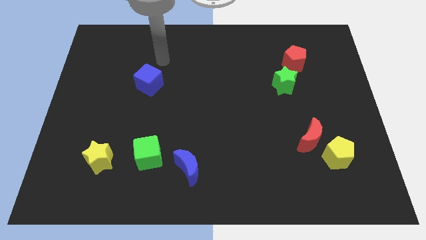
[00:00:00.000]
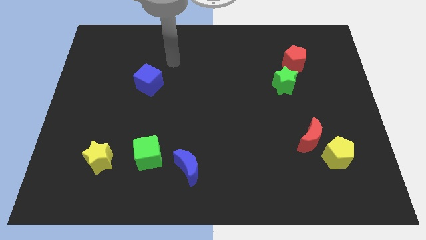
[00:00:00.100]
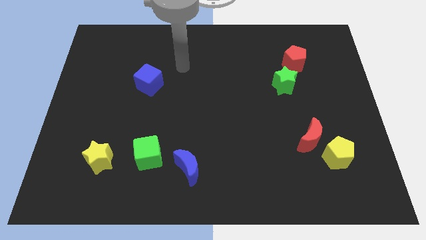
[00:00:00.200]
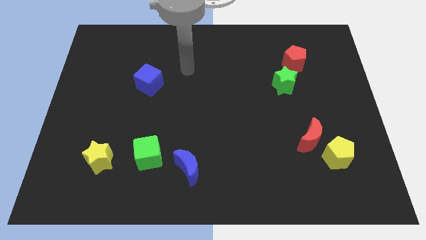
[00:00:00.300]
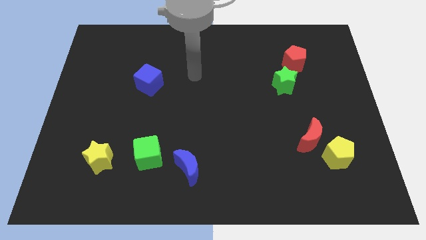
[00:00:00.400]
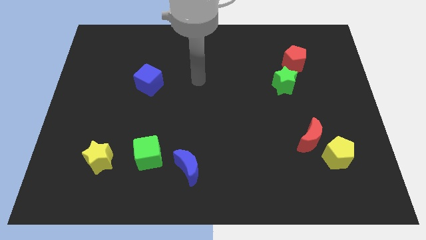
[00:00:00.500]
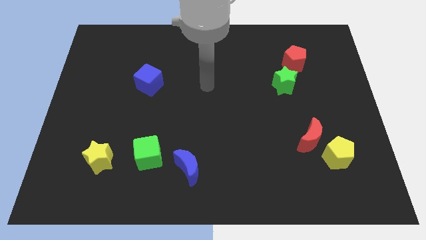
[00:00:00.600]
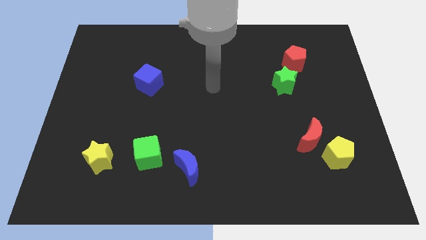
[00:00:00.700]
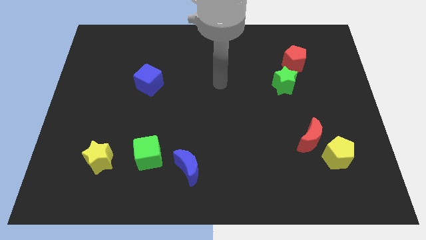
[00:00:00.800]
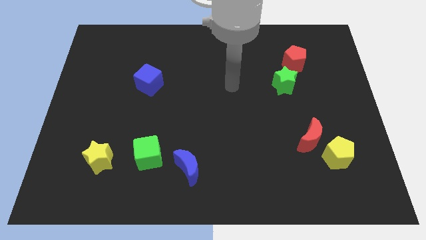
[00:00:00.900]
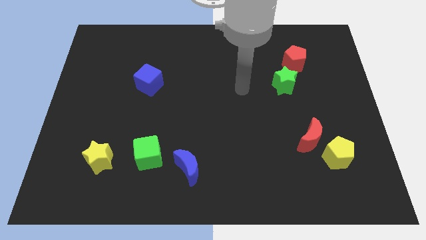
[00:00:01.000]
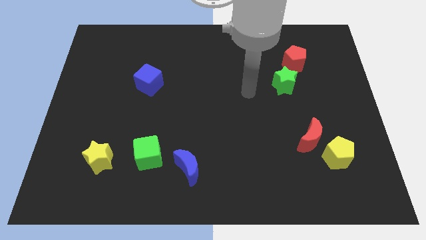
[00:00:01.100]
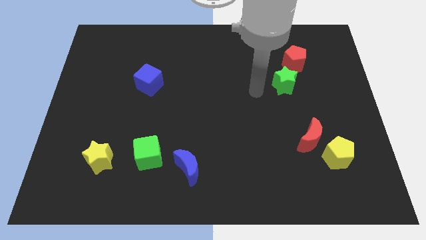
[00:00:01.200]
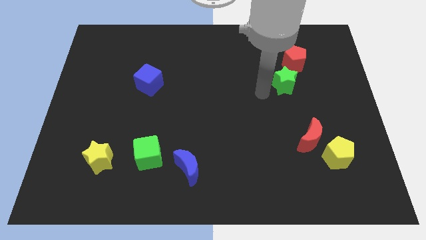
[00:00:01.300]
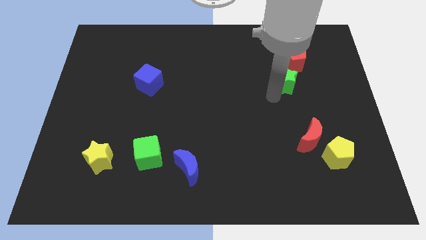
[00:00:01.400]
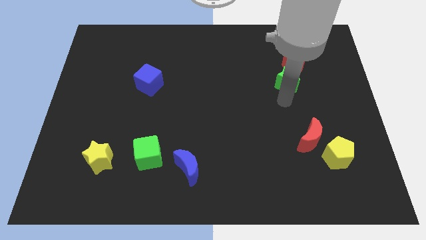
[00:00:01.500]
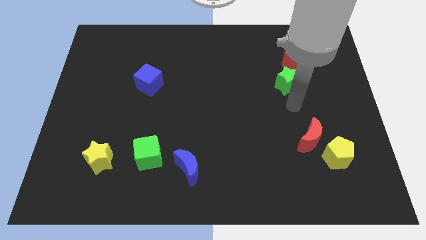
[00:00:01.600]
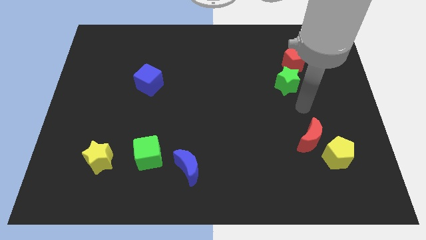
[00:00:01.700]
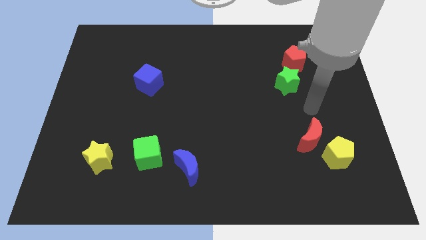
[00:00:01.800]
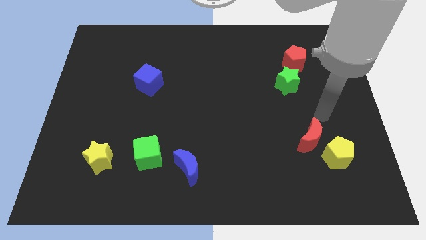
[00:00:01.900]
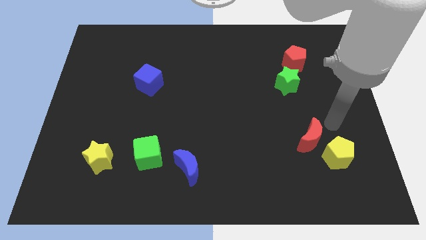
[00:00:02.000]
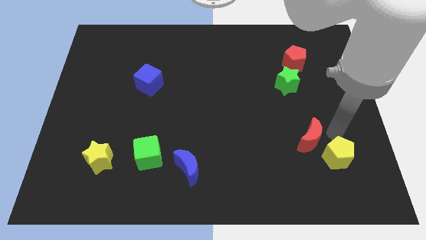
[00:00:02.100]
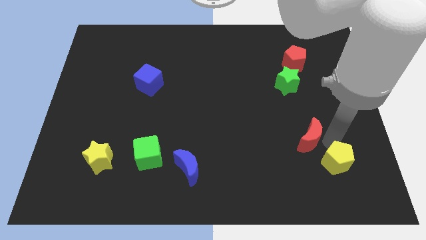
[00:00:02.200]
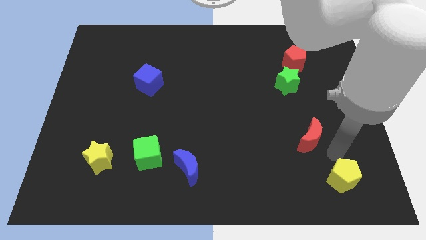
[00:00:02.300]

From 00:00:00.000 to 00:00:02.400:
pull the red moon apart from the yellow pentagon

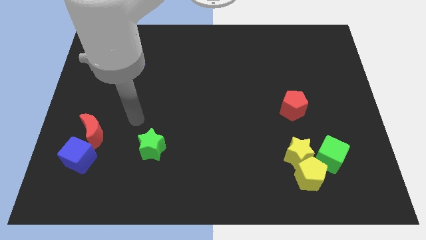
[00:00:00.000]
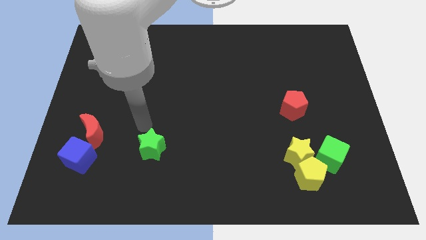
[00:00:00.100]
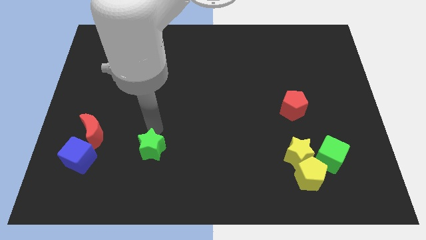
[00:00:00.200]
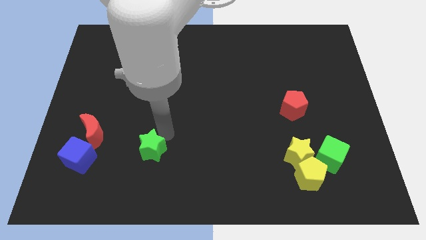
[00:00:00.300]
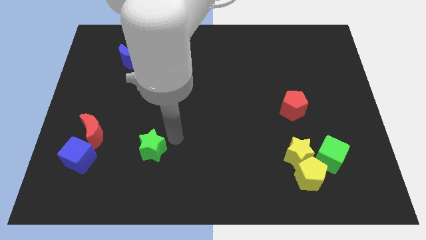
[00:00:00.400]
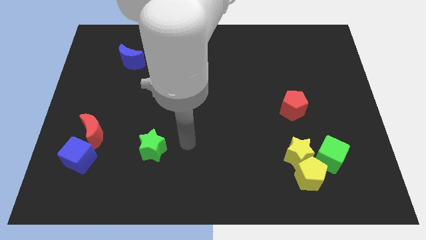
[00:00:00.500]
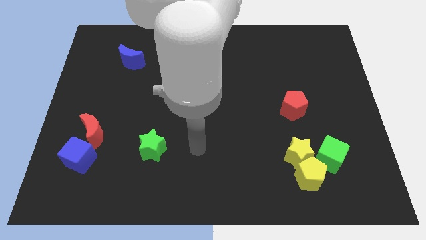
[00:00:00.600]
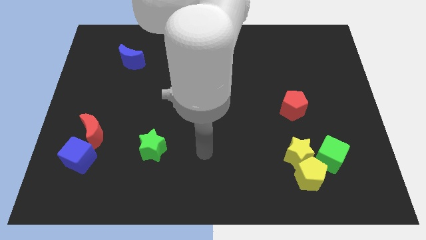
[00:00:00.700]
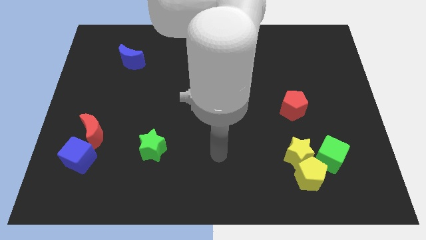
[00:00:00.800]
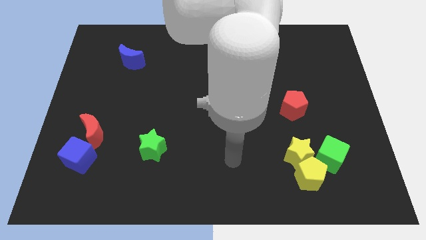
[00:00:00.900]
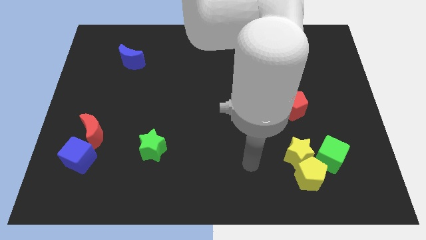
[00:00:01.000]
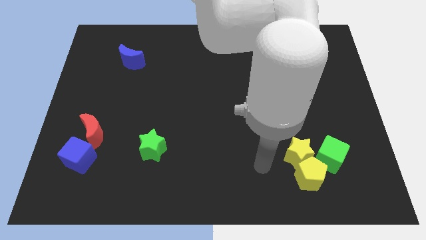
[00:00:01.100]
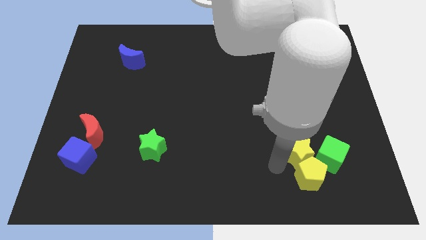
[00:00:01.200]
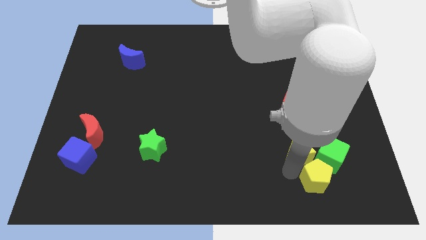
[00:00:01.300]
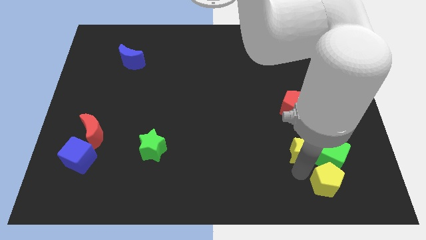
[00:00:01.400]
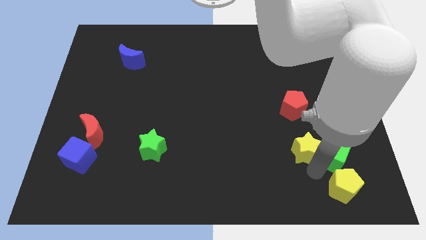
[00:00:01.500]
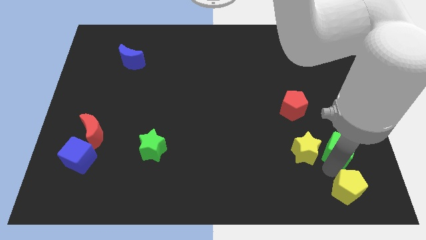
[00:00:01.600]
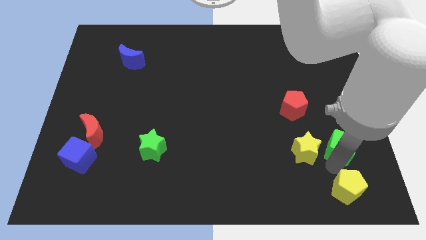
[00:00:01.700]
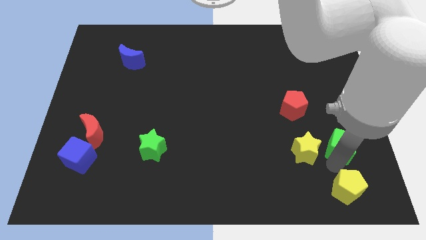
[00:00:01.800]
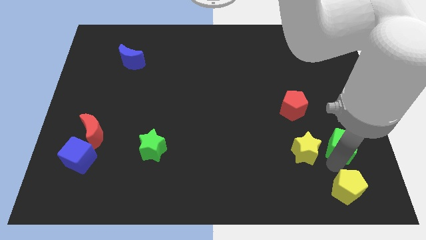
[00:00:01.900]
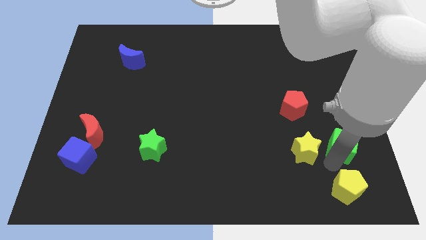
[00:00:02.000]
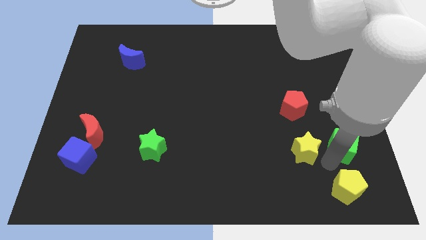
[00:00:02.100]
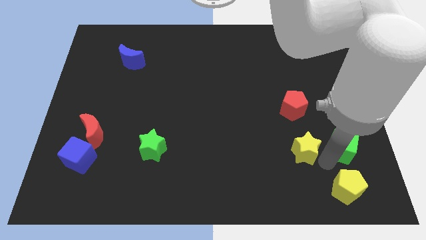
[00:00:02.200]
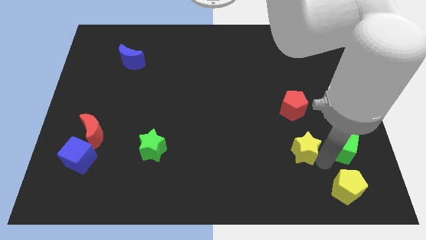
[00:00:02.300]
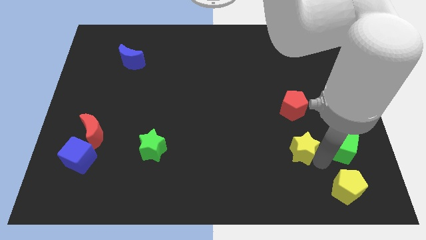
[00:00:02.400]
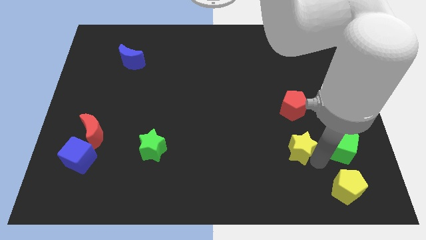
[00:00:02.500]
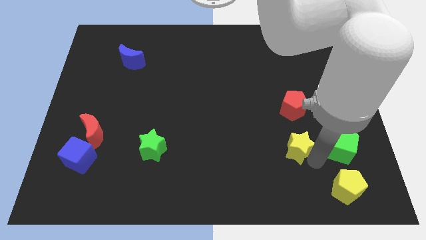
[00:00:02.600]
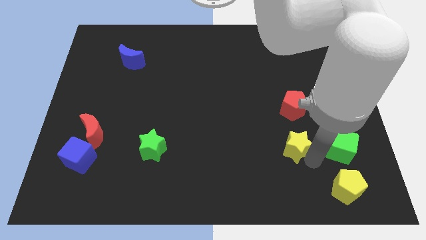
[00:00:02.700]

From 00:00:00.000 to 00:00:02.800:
move the yellow star away from the yellow pentagon and green cube

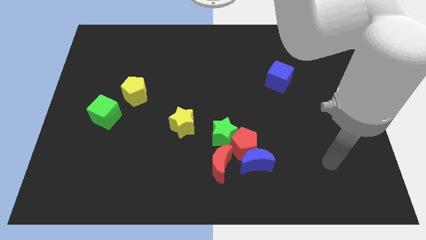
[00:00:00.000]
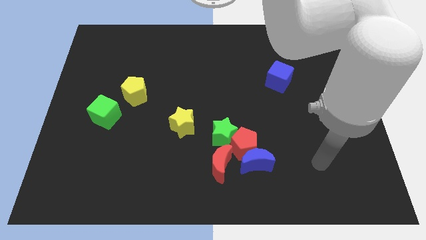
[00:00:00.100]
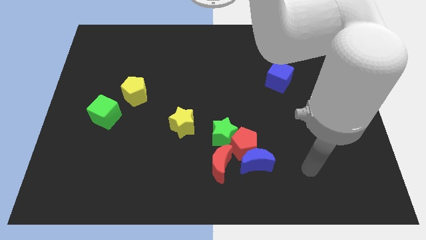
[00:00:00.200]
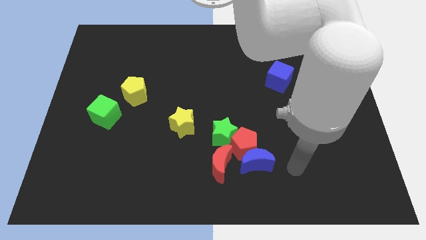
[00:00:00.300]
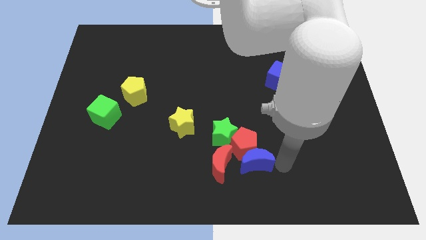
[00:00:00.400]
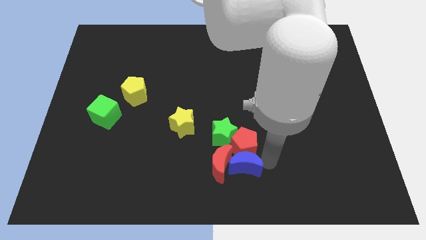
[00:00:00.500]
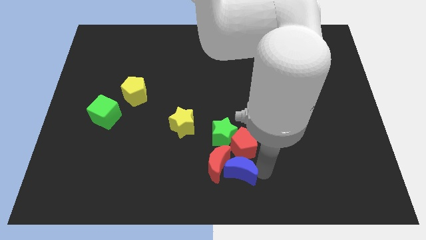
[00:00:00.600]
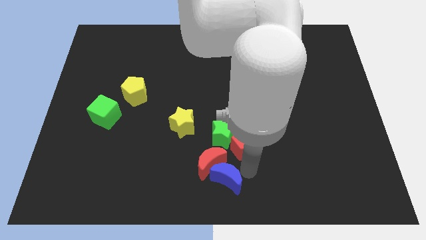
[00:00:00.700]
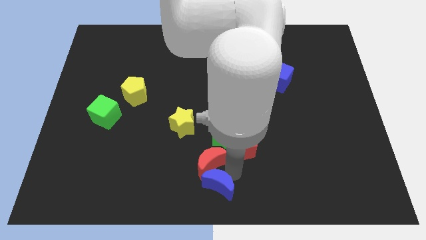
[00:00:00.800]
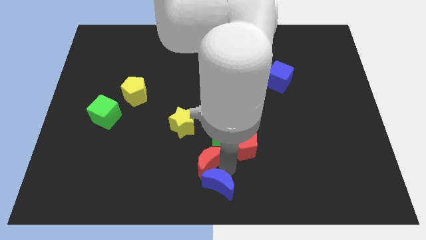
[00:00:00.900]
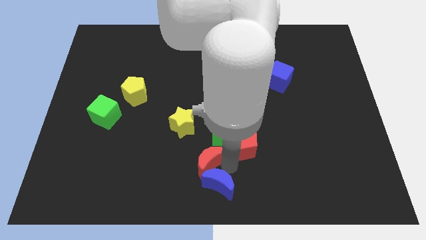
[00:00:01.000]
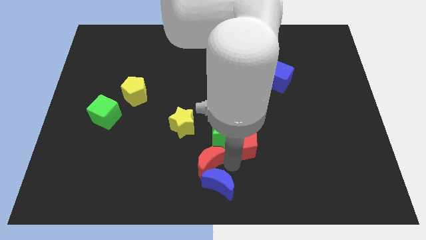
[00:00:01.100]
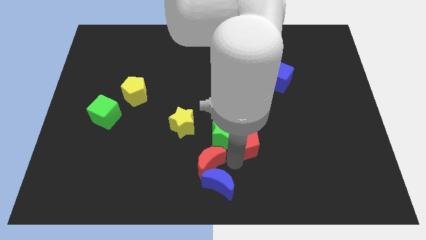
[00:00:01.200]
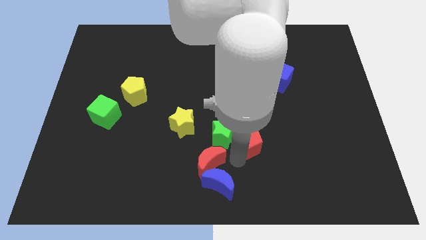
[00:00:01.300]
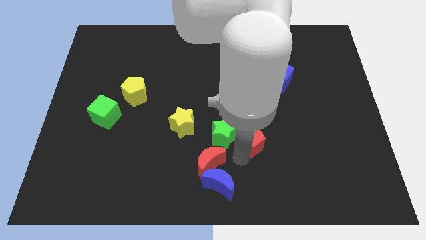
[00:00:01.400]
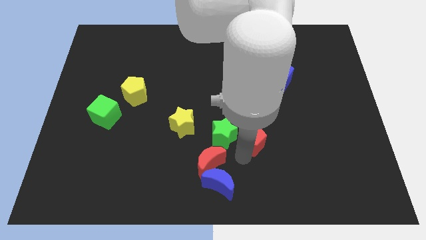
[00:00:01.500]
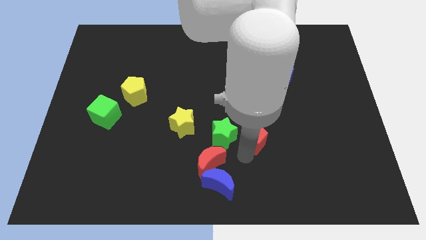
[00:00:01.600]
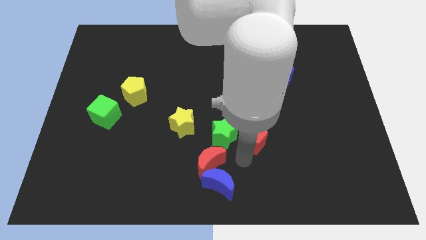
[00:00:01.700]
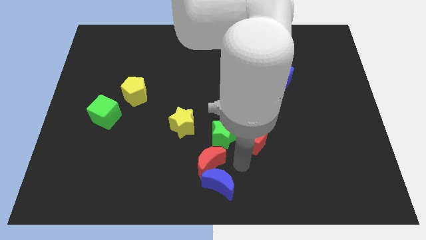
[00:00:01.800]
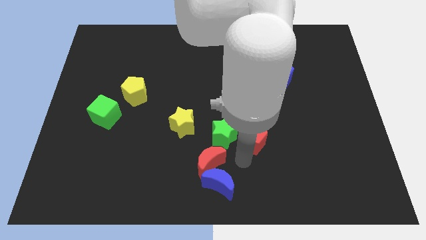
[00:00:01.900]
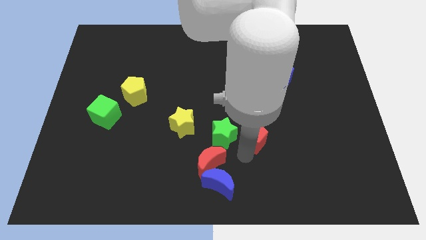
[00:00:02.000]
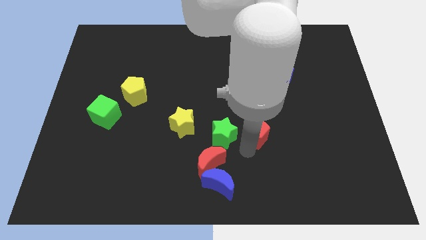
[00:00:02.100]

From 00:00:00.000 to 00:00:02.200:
move the red pentagon away from the group

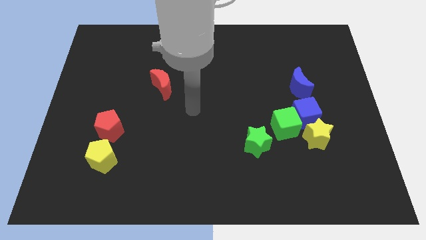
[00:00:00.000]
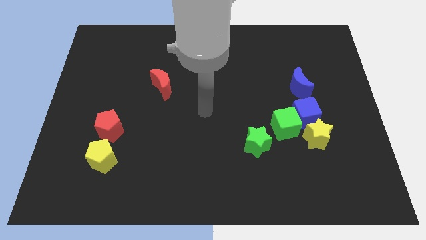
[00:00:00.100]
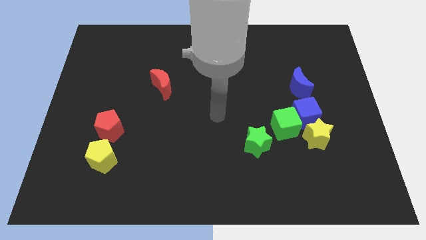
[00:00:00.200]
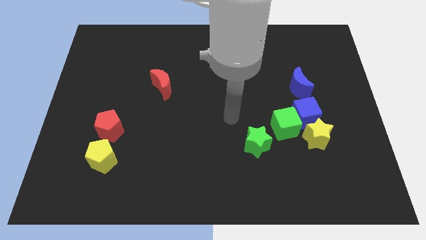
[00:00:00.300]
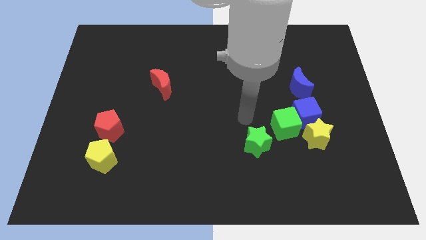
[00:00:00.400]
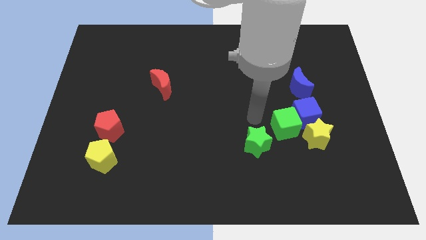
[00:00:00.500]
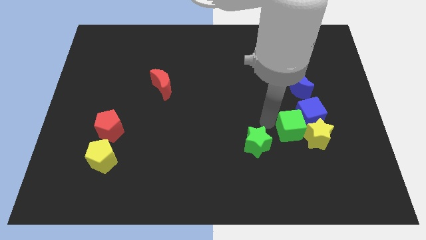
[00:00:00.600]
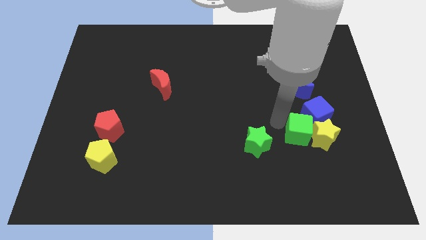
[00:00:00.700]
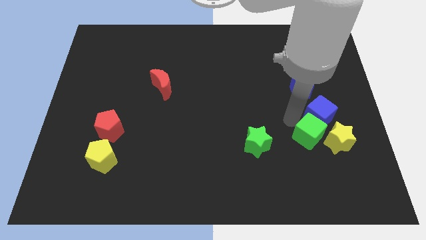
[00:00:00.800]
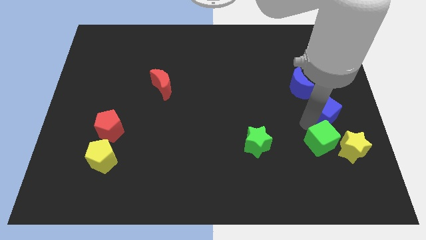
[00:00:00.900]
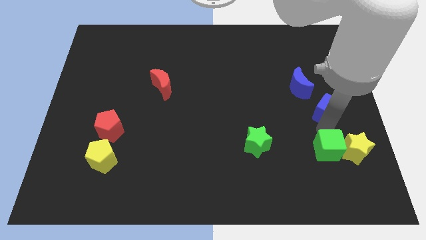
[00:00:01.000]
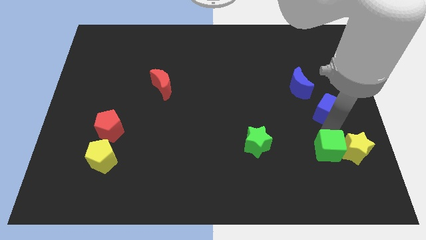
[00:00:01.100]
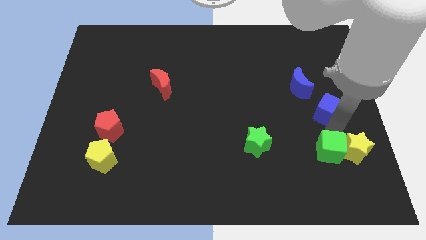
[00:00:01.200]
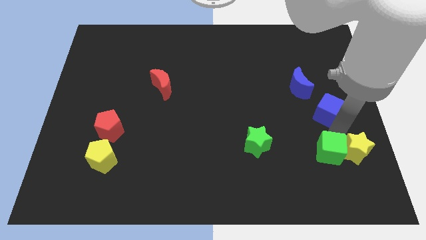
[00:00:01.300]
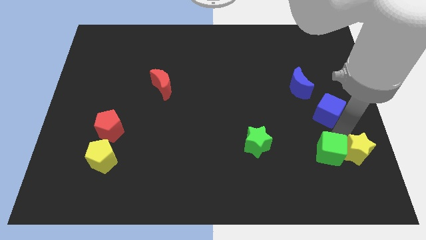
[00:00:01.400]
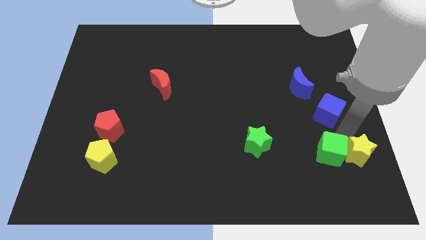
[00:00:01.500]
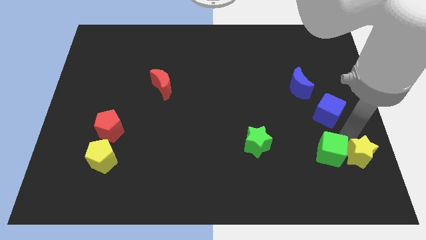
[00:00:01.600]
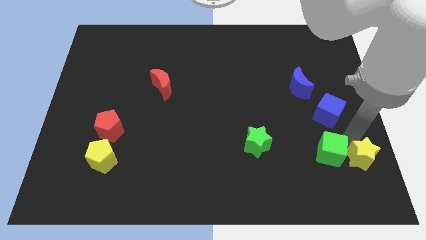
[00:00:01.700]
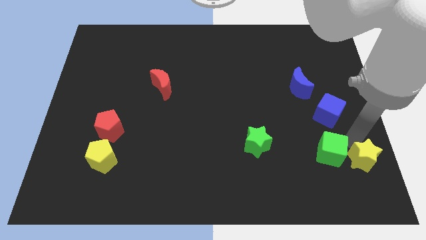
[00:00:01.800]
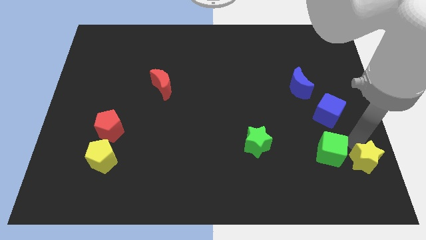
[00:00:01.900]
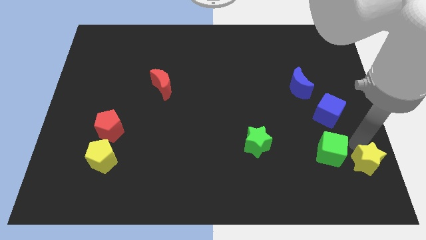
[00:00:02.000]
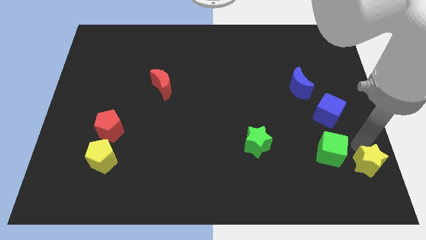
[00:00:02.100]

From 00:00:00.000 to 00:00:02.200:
move the yellow star away from the blue cube and green cube
